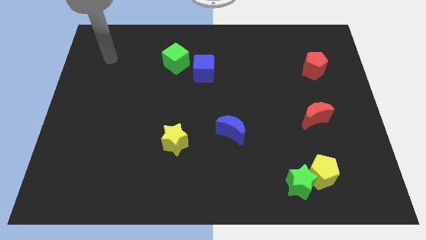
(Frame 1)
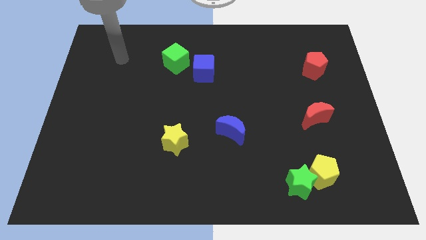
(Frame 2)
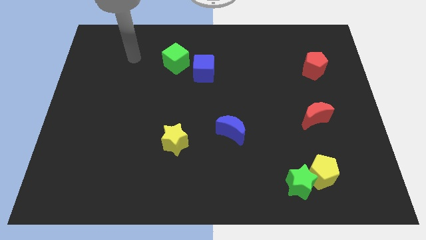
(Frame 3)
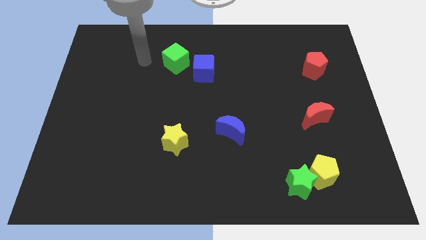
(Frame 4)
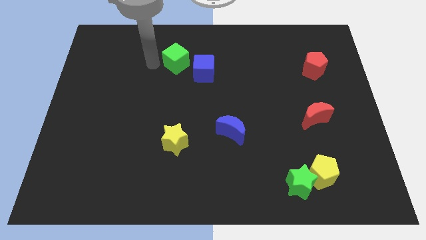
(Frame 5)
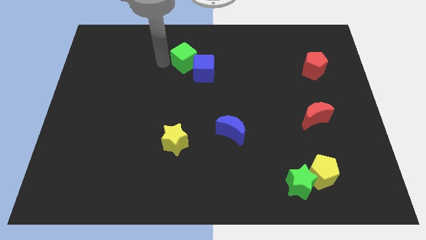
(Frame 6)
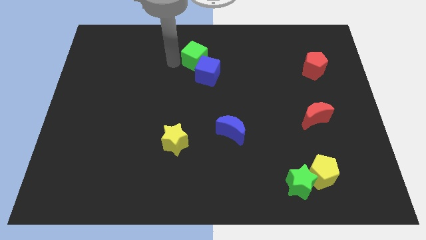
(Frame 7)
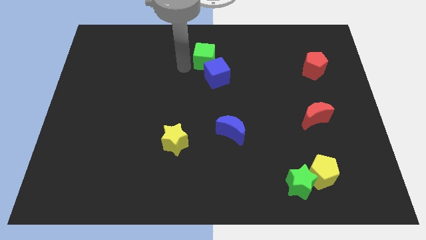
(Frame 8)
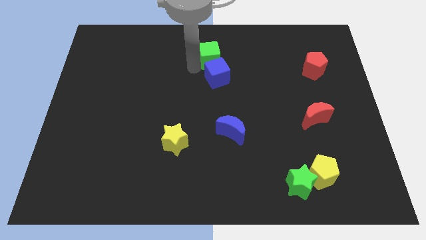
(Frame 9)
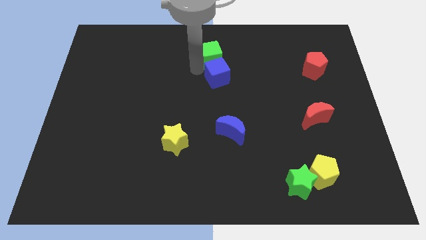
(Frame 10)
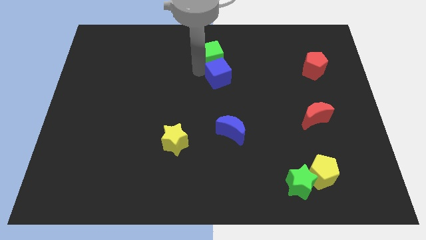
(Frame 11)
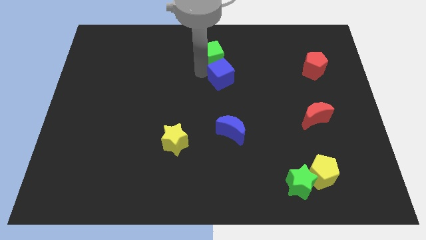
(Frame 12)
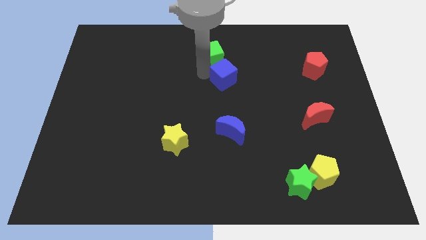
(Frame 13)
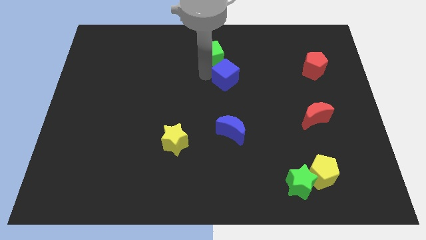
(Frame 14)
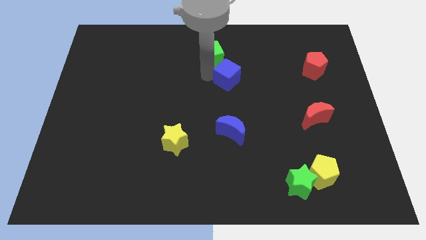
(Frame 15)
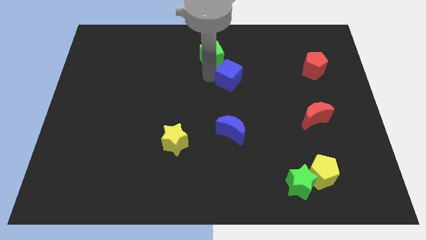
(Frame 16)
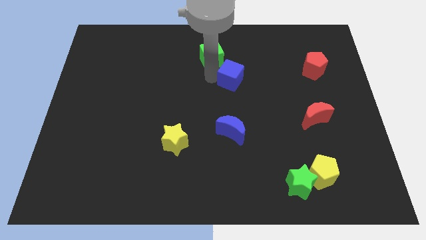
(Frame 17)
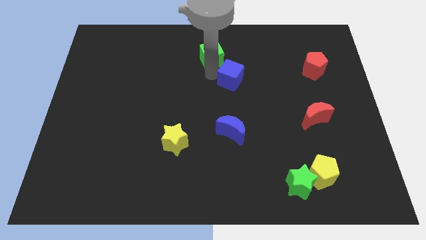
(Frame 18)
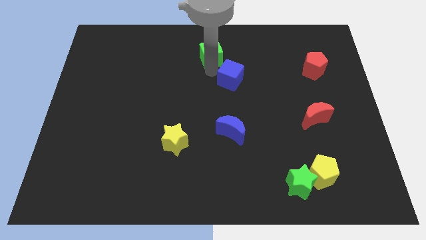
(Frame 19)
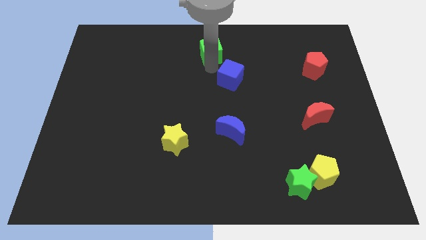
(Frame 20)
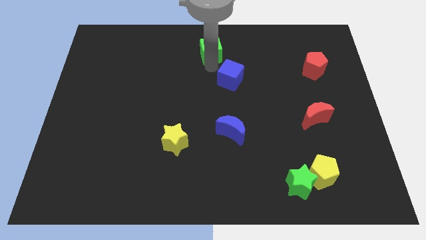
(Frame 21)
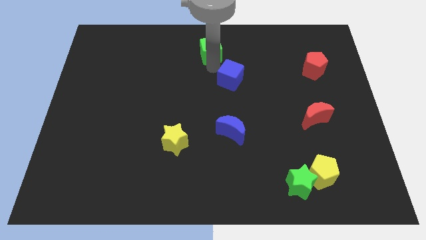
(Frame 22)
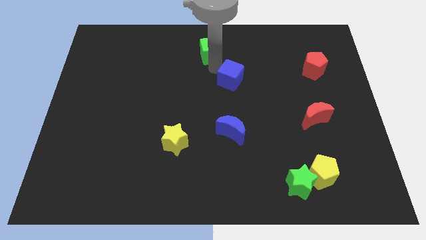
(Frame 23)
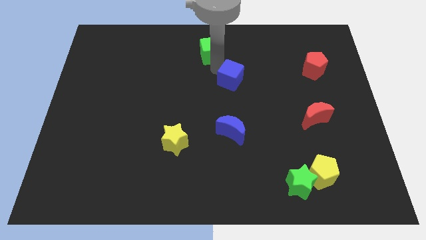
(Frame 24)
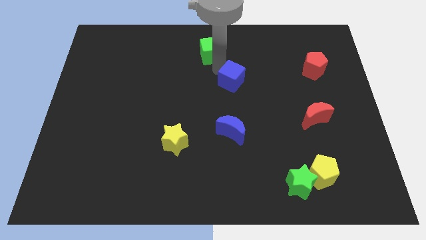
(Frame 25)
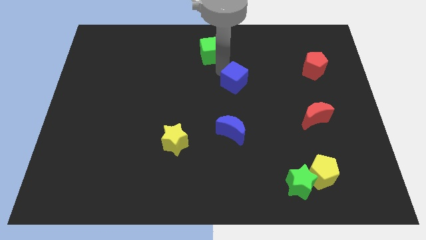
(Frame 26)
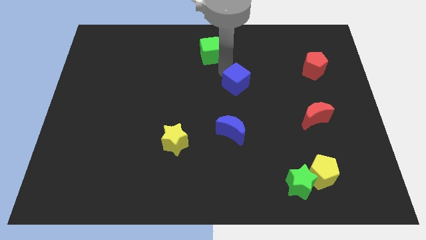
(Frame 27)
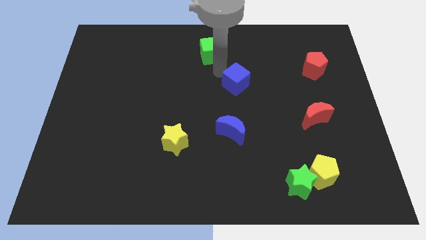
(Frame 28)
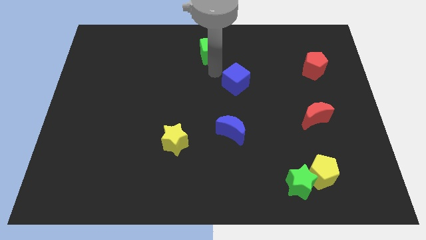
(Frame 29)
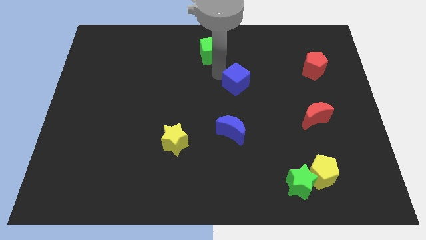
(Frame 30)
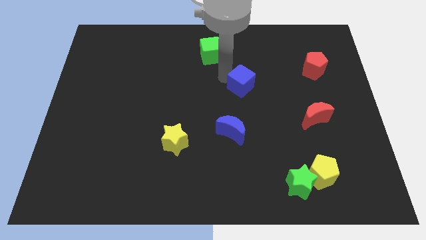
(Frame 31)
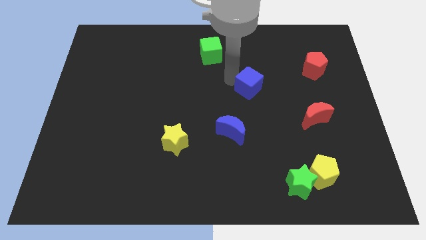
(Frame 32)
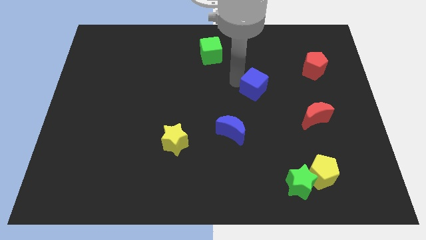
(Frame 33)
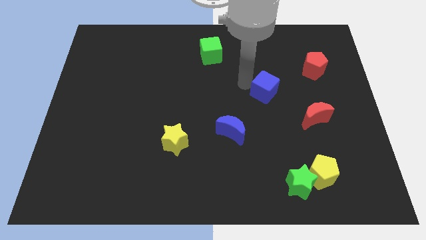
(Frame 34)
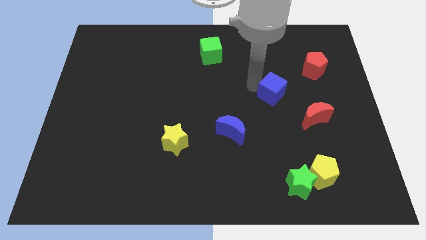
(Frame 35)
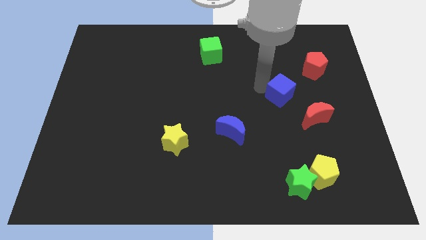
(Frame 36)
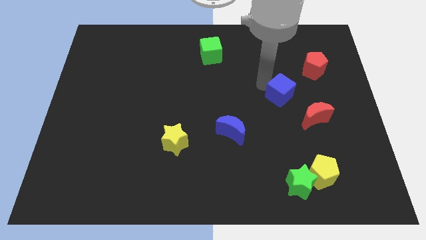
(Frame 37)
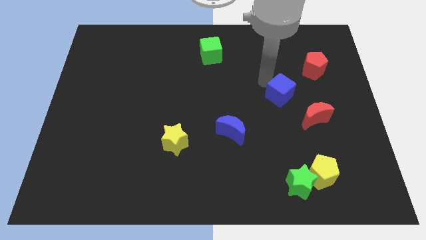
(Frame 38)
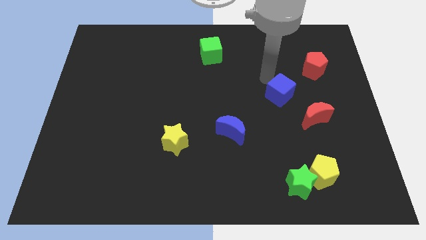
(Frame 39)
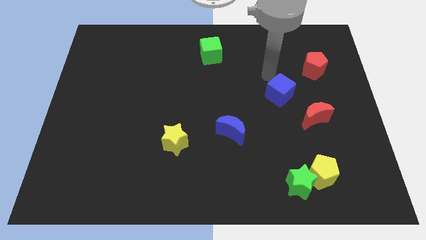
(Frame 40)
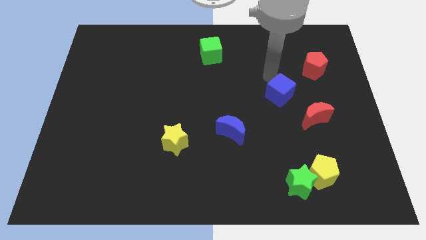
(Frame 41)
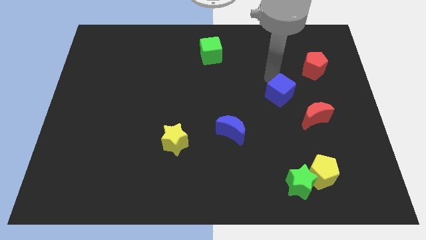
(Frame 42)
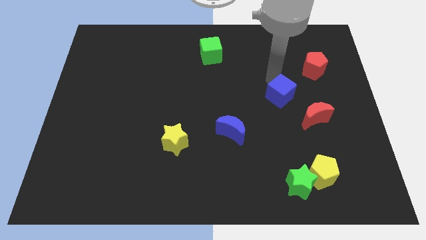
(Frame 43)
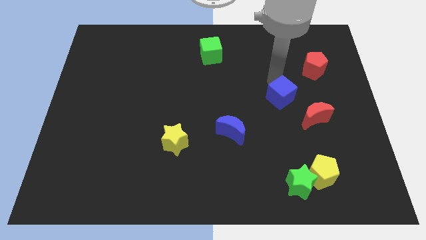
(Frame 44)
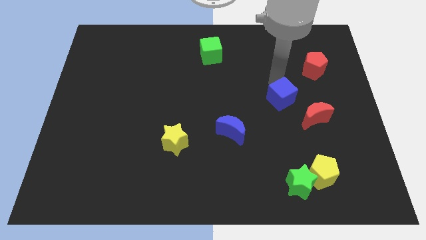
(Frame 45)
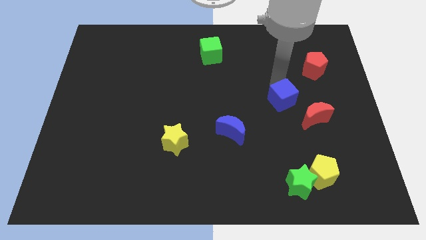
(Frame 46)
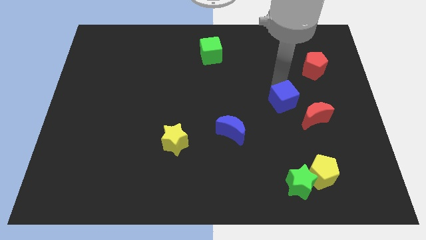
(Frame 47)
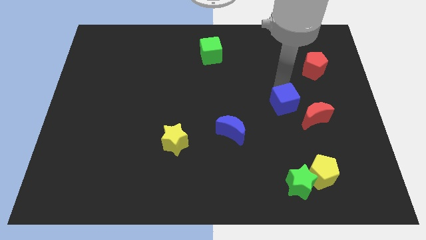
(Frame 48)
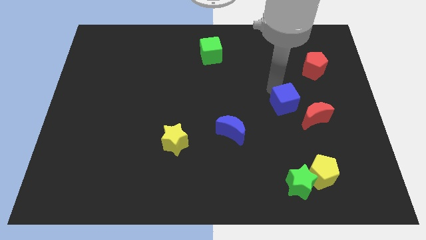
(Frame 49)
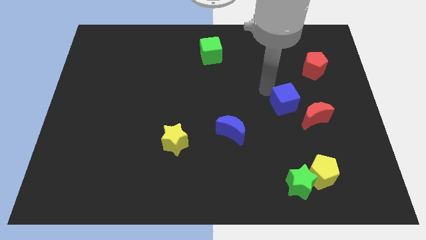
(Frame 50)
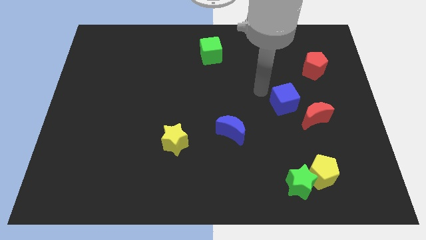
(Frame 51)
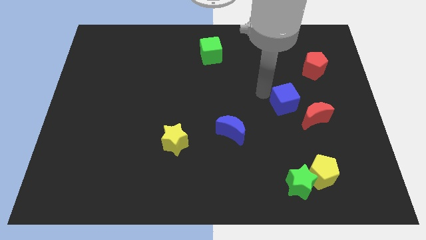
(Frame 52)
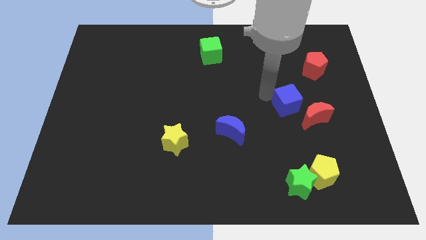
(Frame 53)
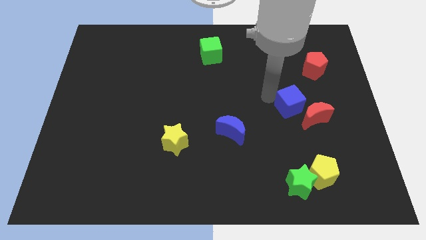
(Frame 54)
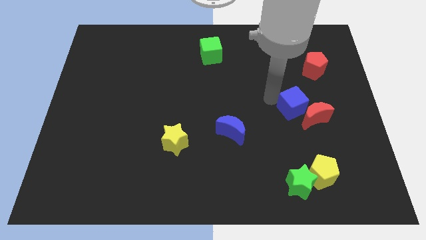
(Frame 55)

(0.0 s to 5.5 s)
slide the blue cube close to the red moon
